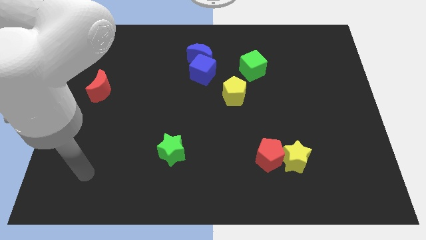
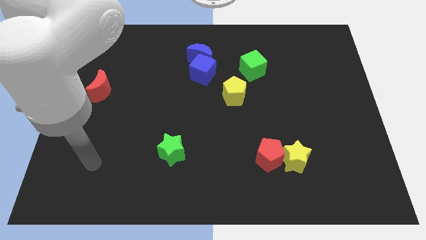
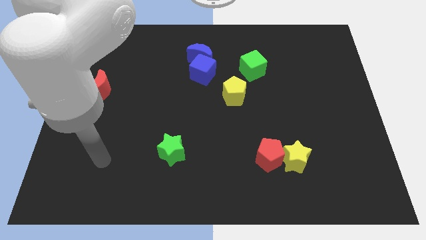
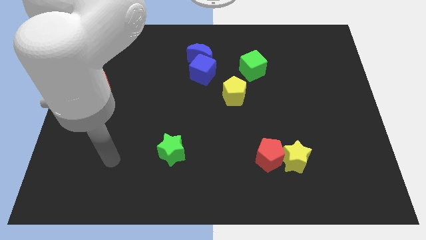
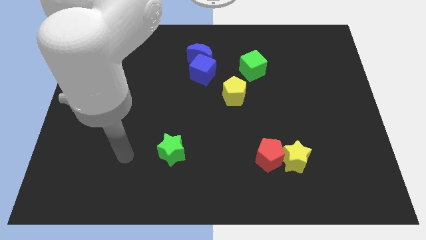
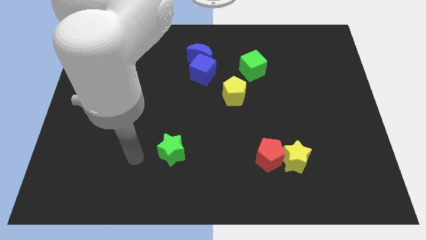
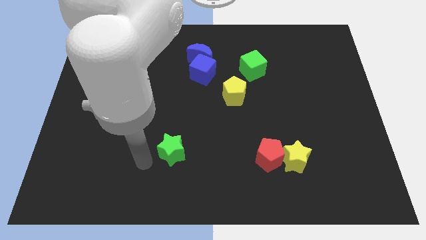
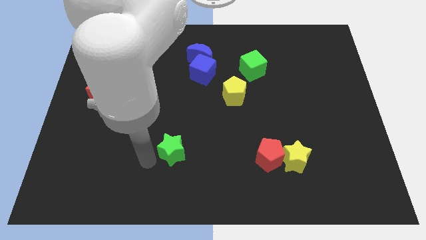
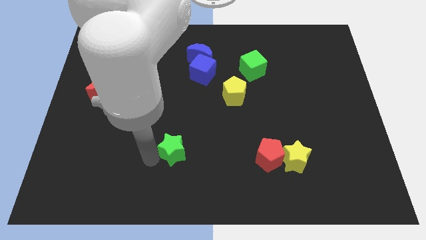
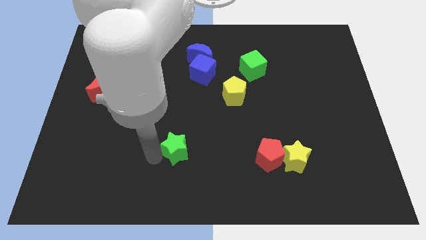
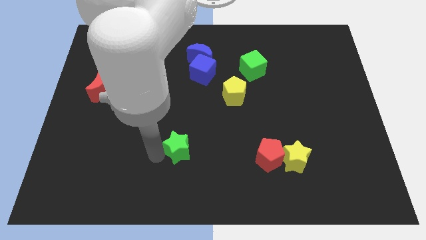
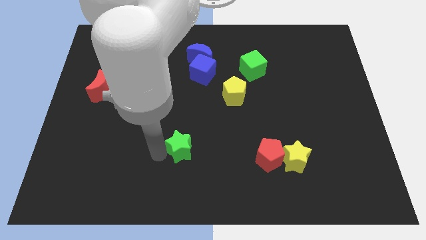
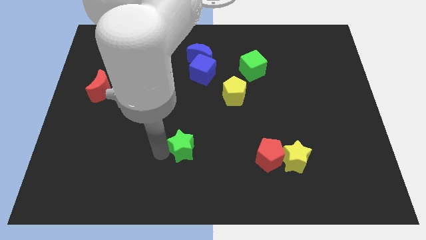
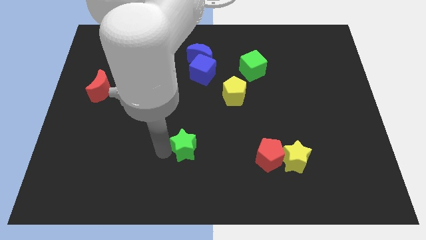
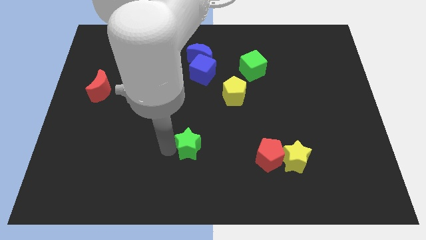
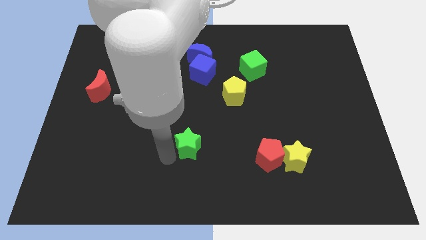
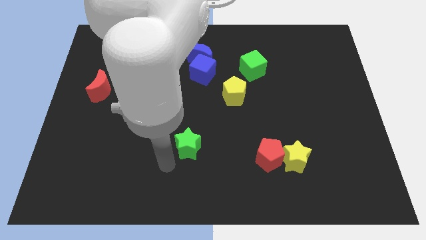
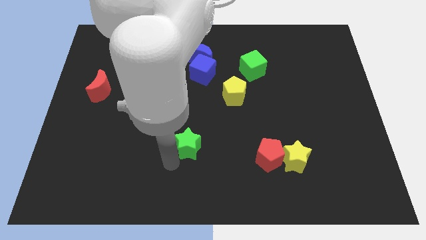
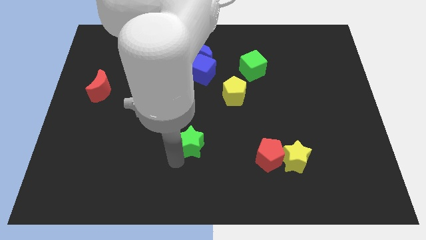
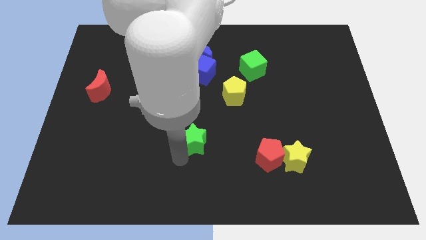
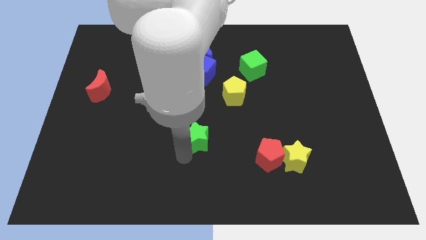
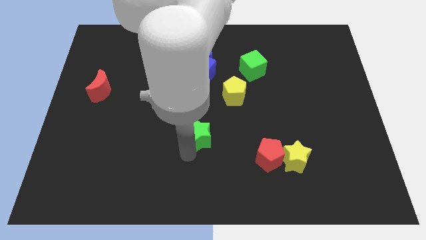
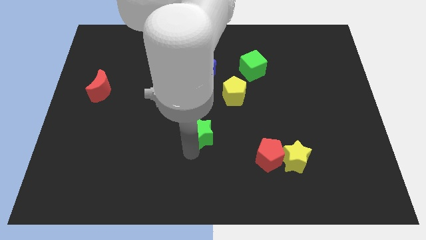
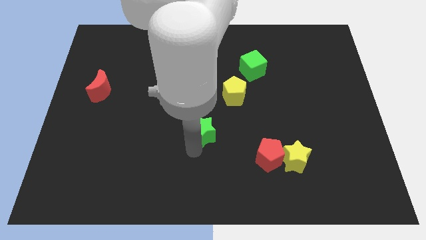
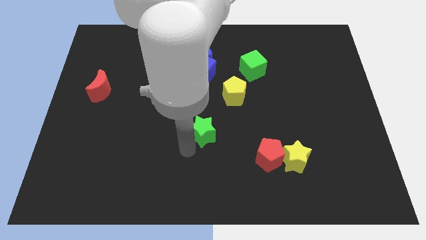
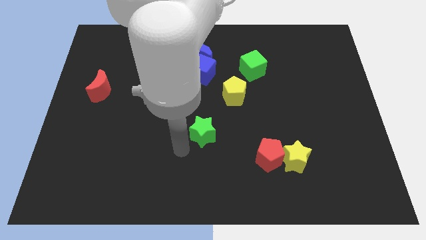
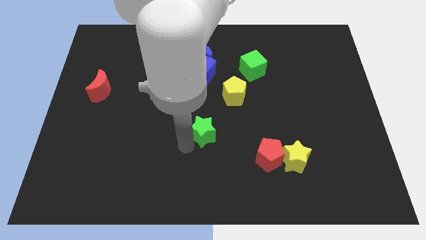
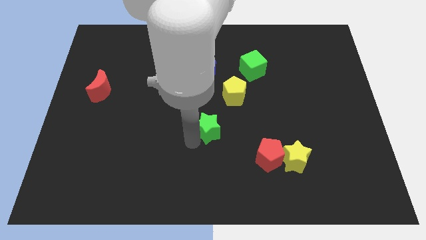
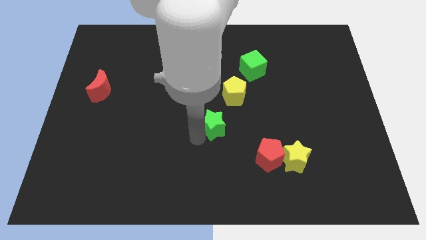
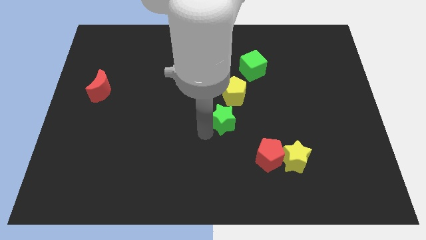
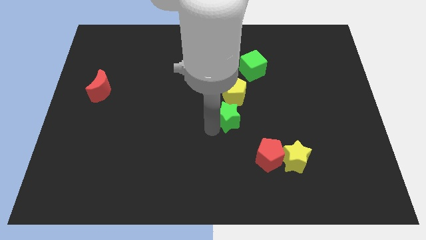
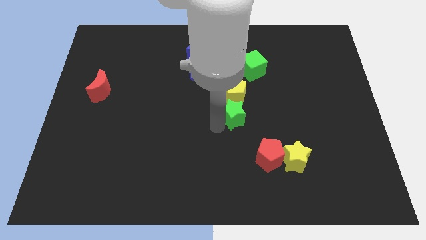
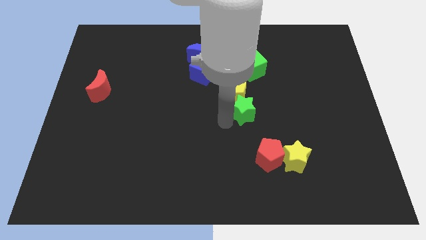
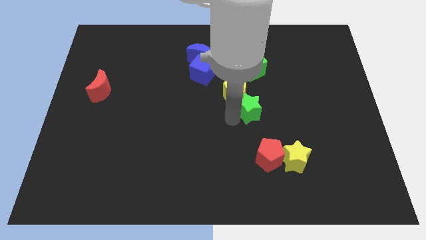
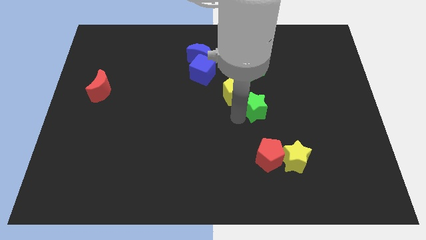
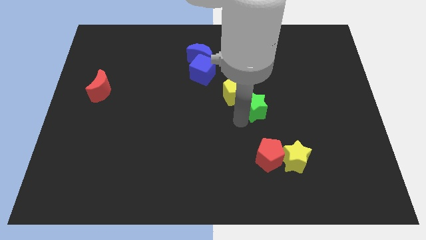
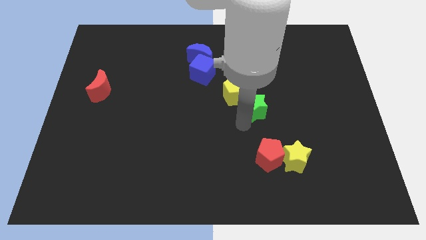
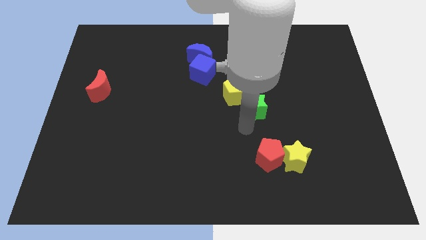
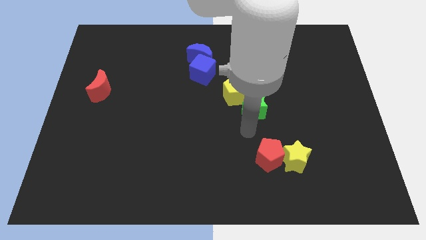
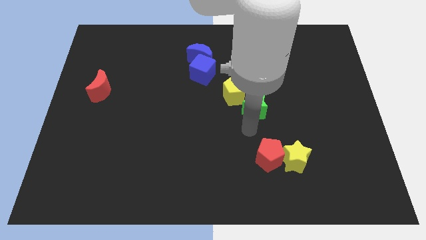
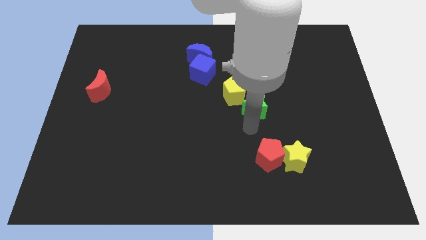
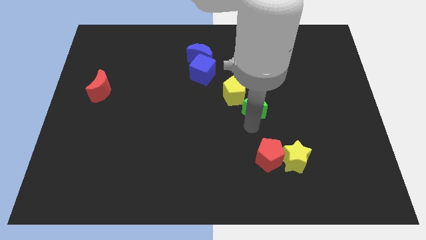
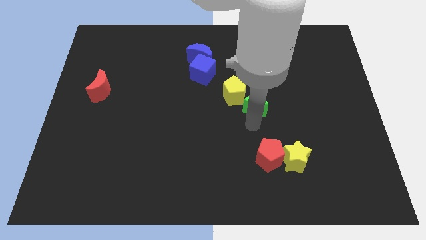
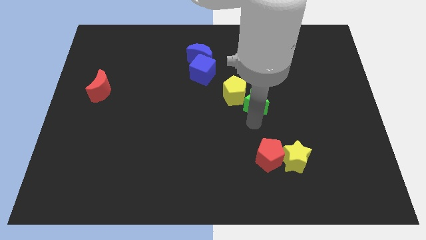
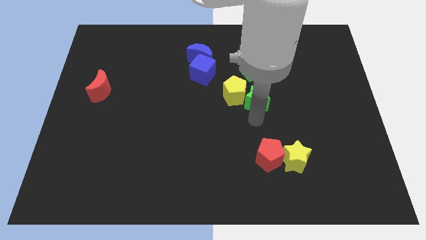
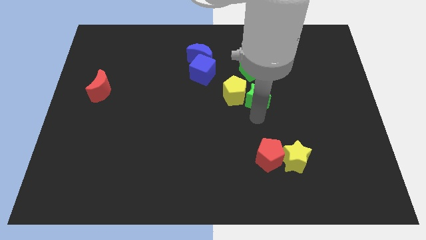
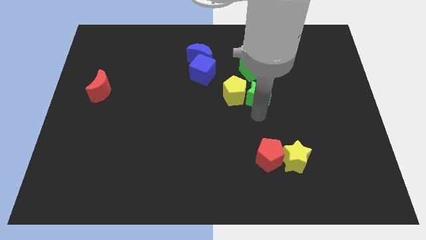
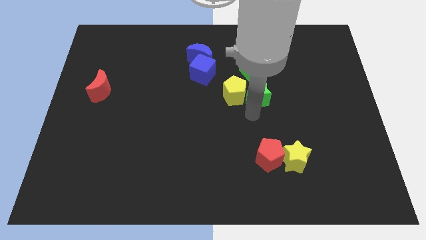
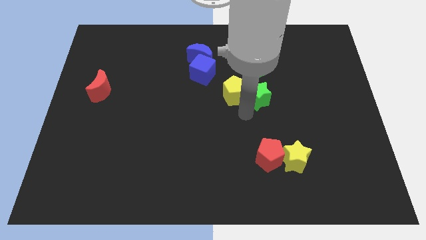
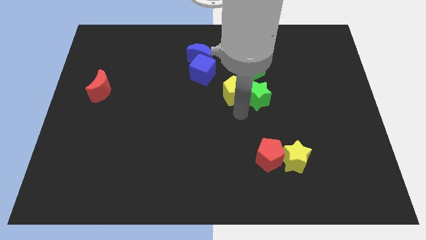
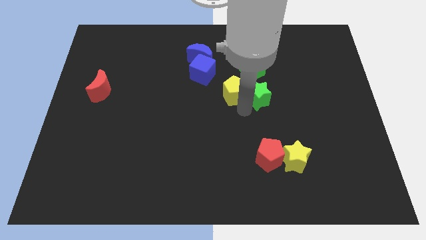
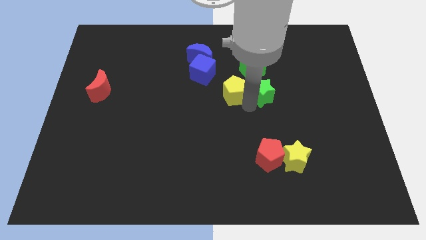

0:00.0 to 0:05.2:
push the green star to the bottom right of the green cube

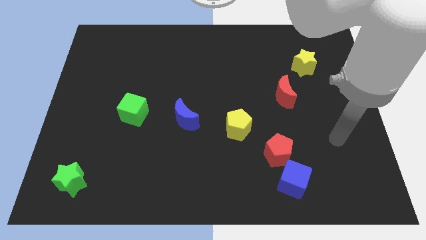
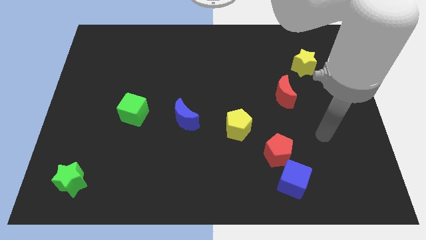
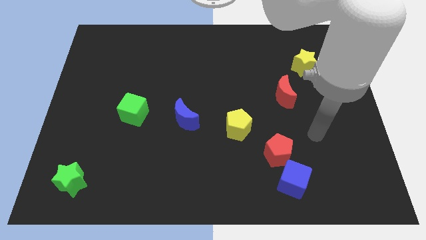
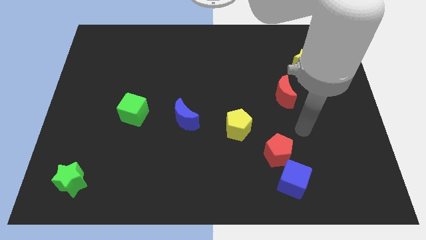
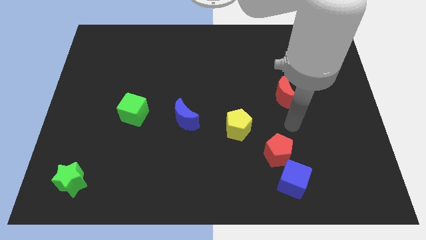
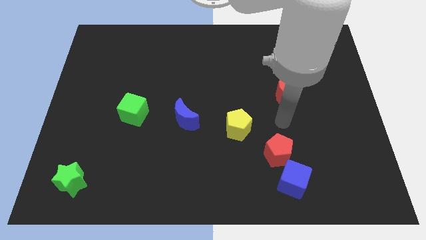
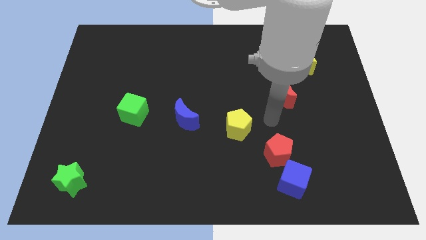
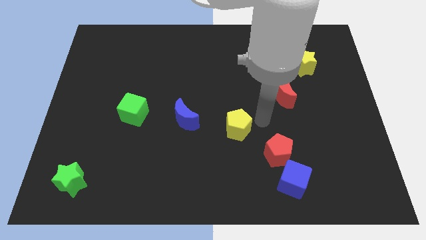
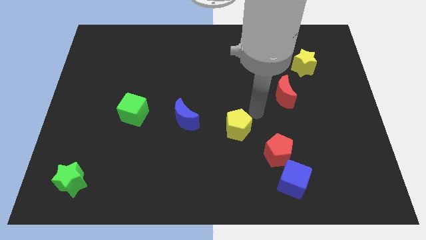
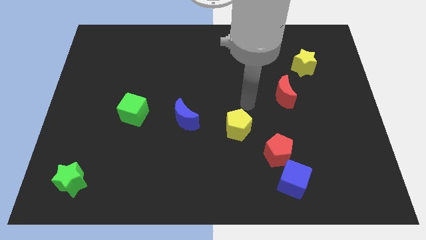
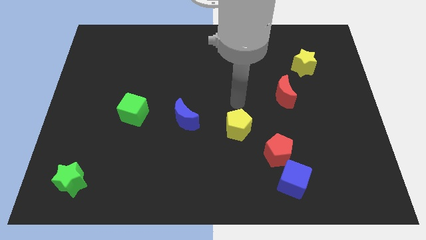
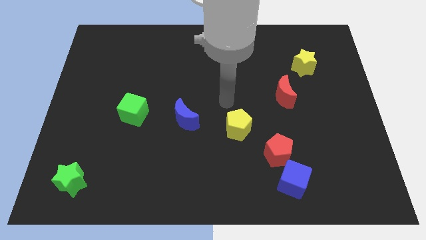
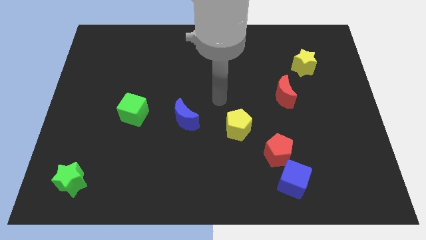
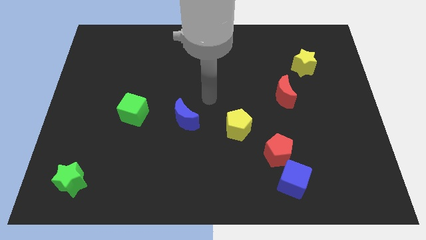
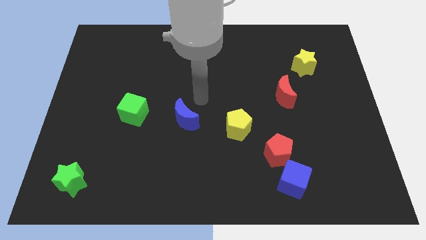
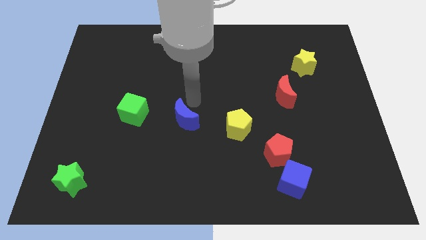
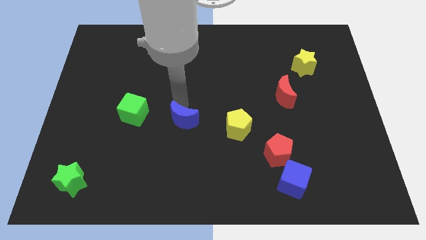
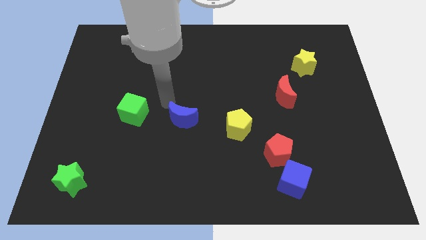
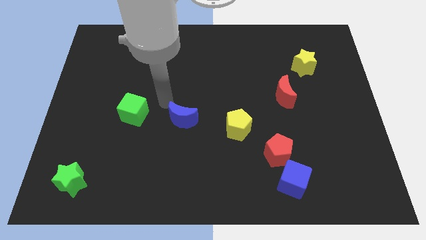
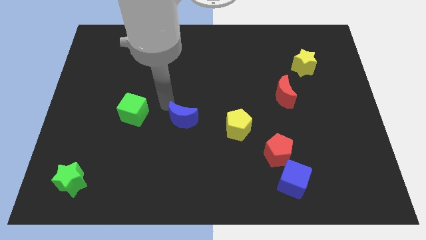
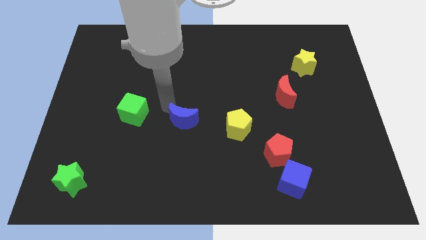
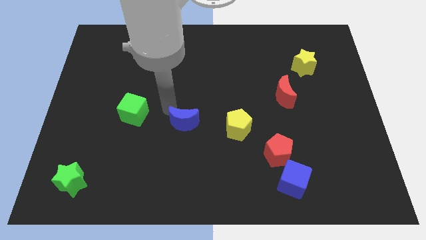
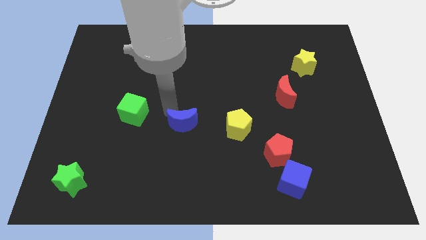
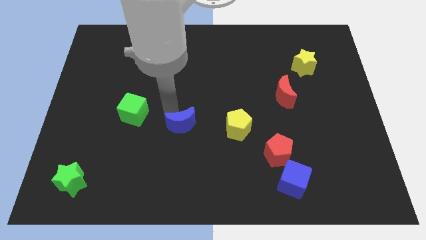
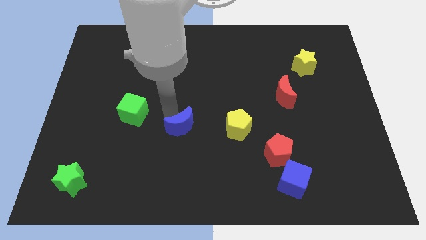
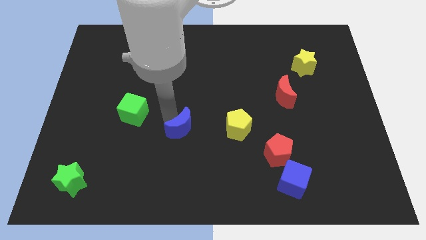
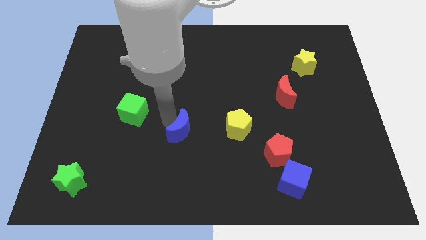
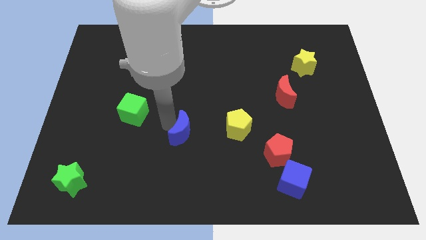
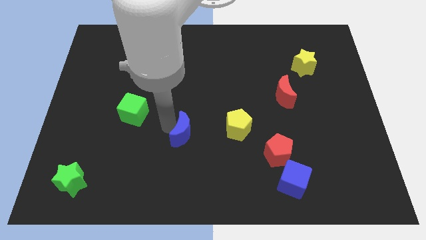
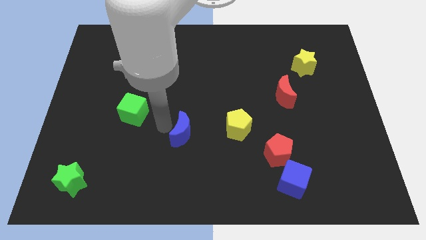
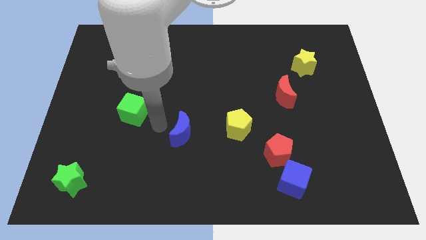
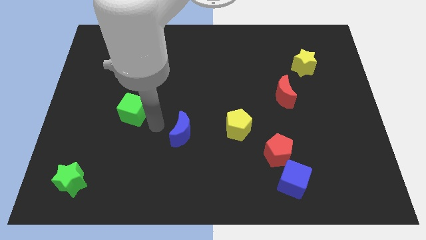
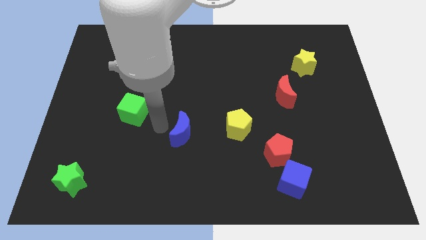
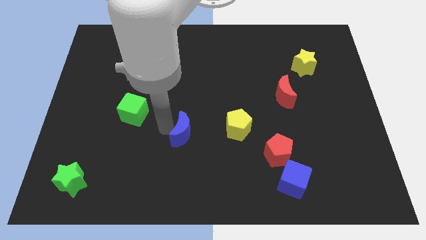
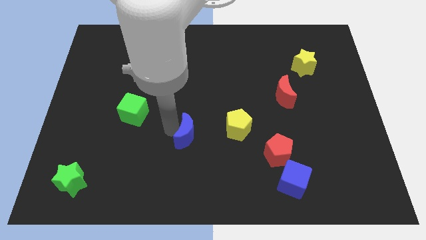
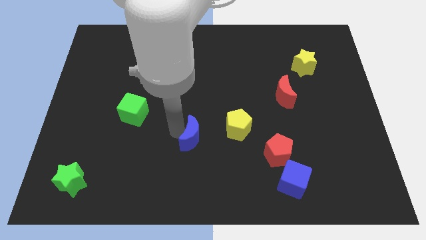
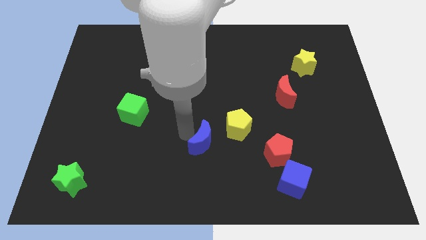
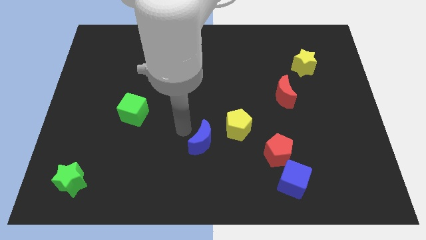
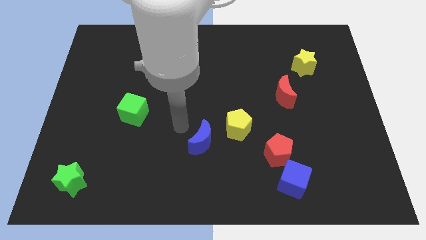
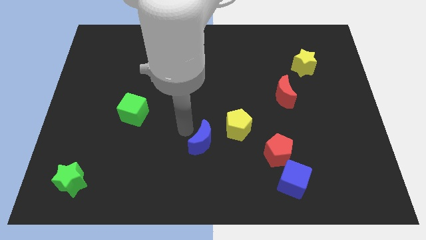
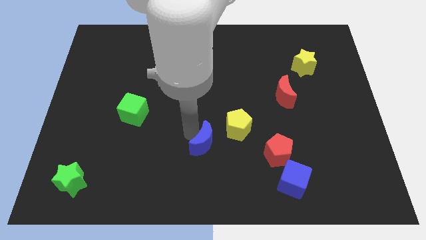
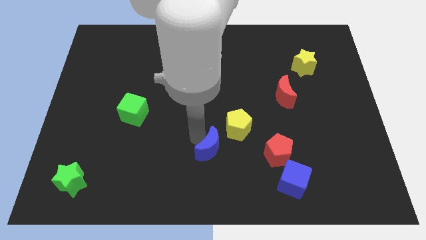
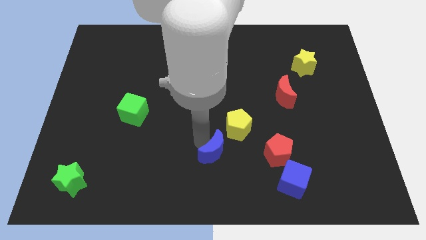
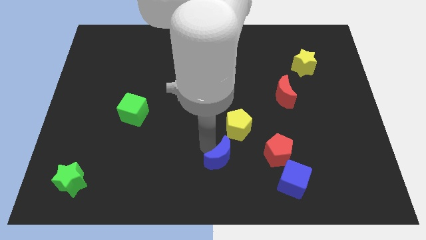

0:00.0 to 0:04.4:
put the blue moon below the yellow pentagon
